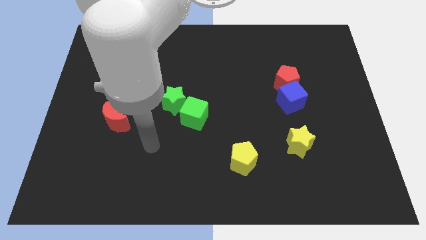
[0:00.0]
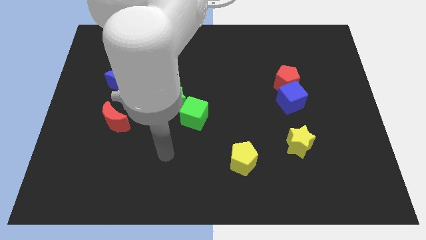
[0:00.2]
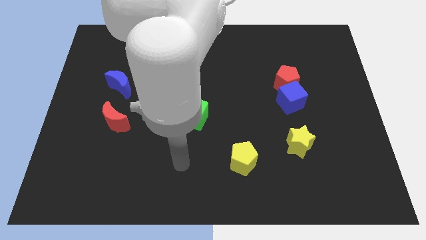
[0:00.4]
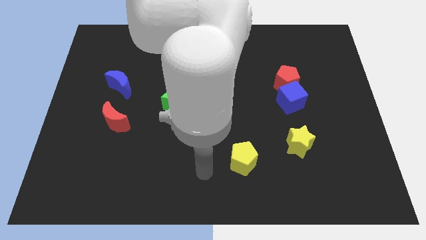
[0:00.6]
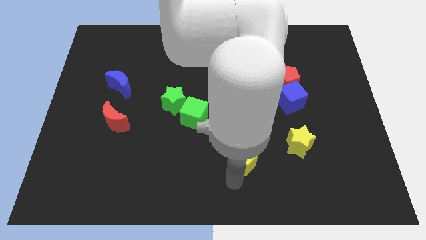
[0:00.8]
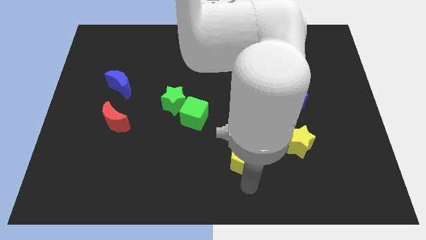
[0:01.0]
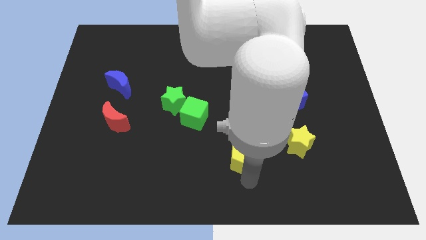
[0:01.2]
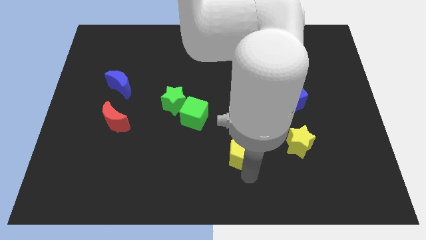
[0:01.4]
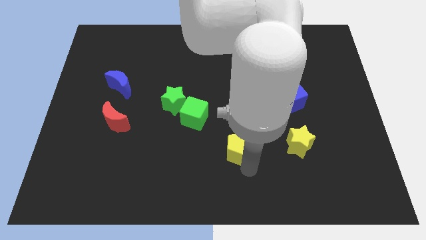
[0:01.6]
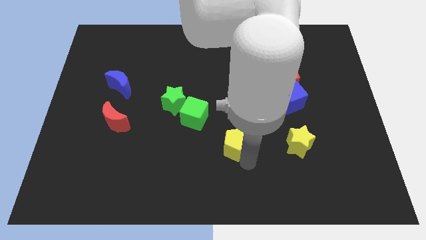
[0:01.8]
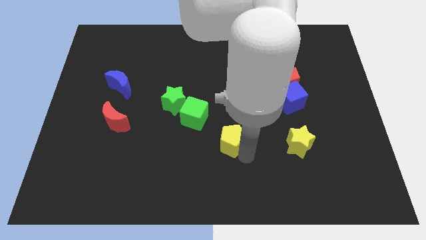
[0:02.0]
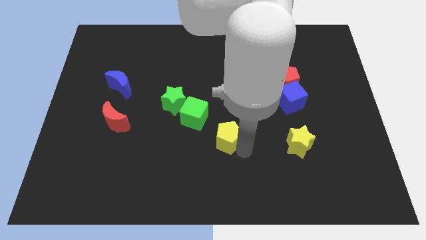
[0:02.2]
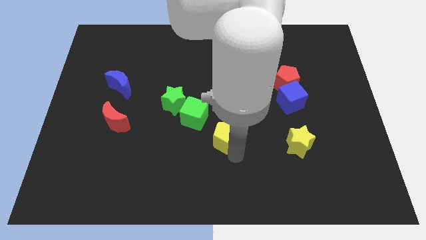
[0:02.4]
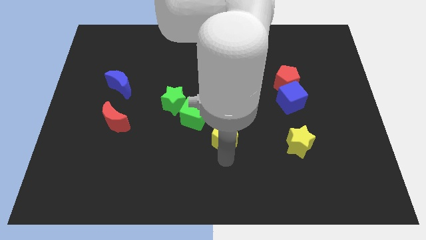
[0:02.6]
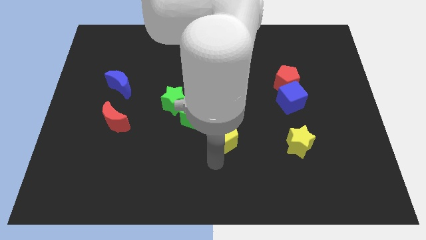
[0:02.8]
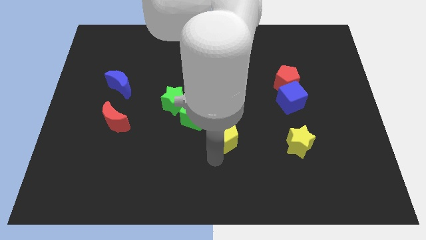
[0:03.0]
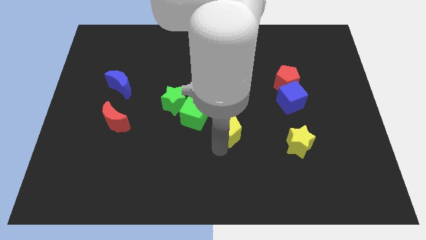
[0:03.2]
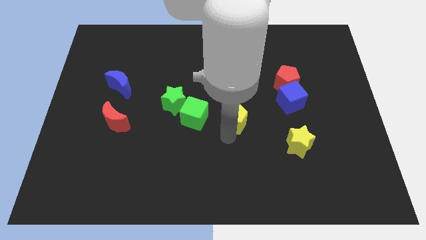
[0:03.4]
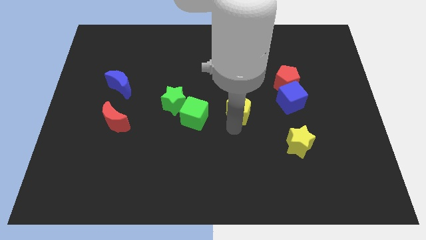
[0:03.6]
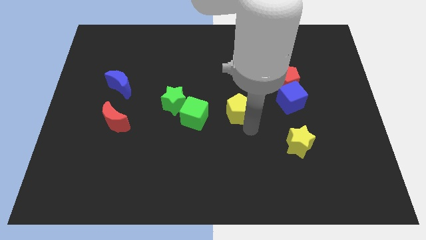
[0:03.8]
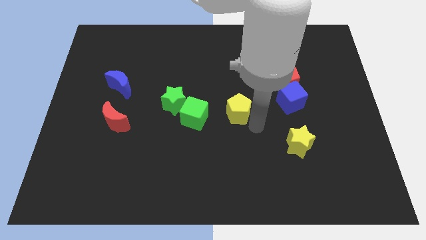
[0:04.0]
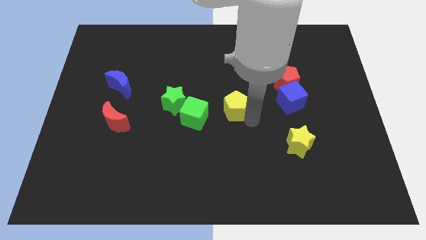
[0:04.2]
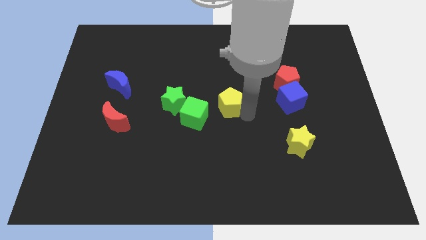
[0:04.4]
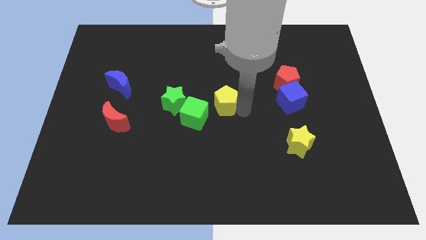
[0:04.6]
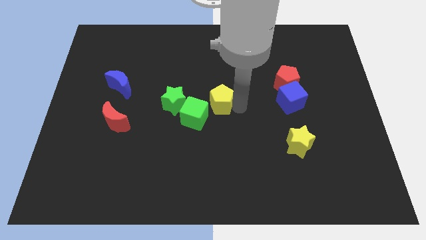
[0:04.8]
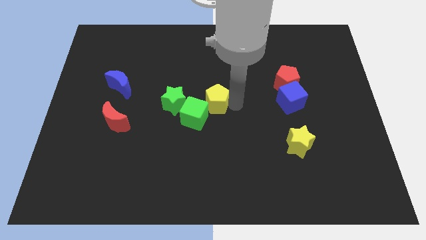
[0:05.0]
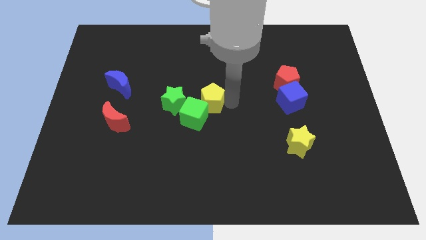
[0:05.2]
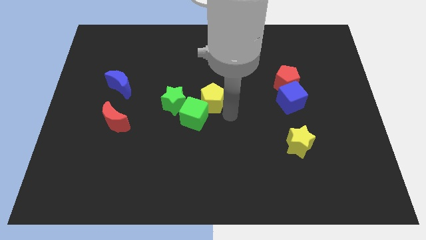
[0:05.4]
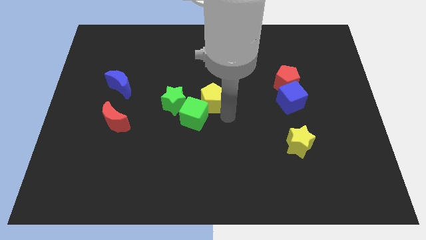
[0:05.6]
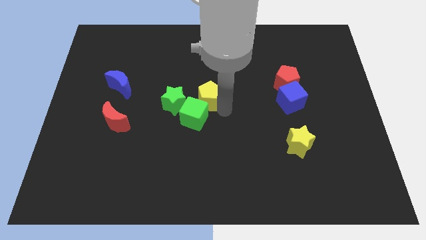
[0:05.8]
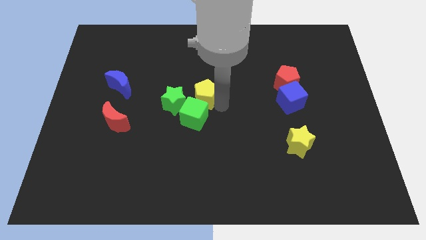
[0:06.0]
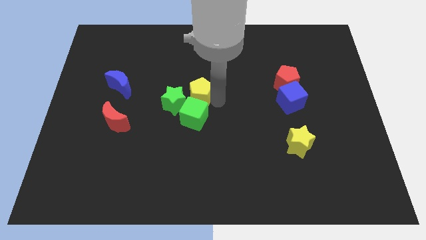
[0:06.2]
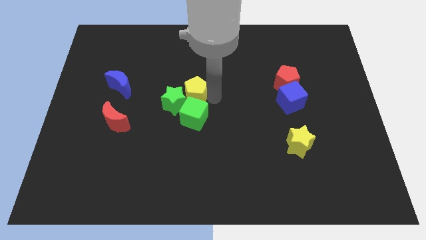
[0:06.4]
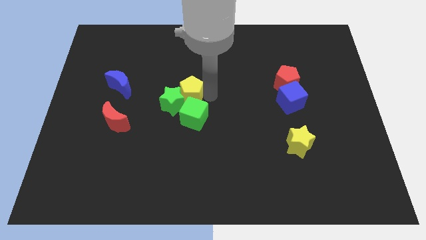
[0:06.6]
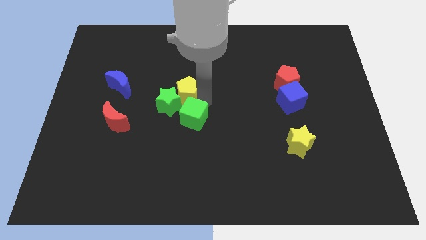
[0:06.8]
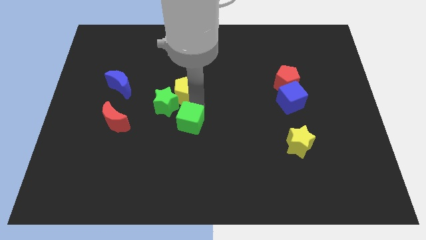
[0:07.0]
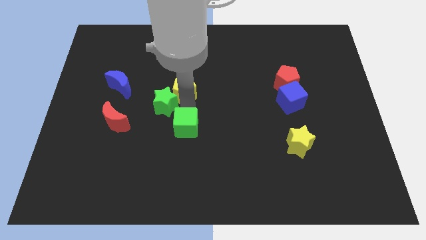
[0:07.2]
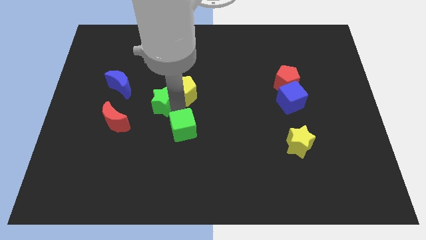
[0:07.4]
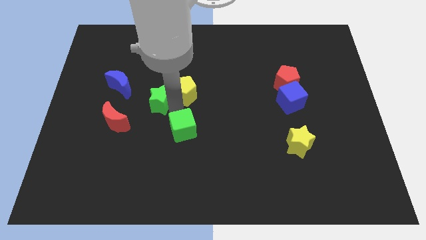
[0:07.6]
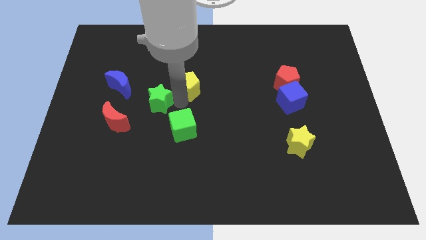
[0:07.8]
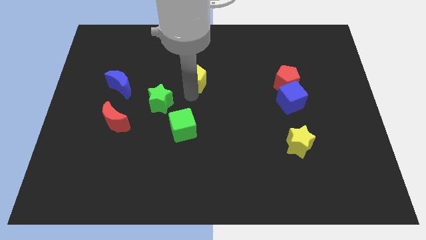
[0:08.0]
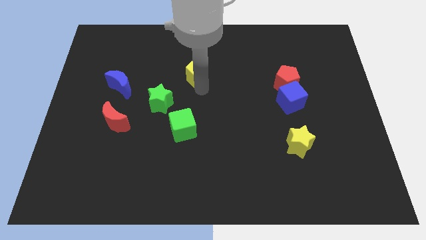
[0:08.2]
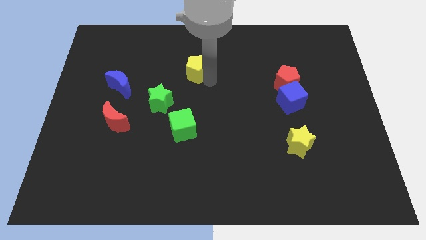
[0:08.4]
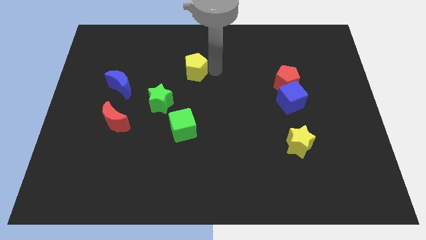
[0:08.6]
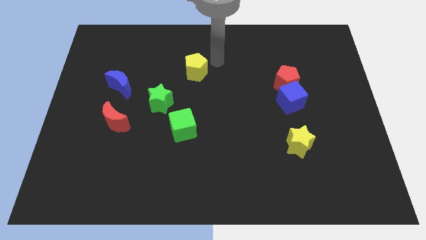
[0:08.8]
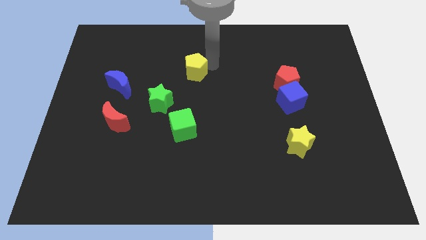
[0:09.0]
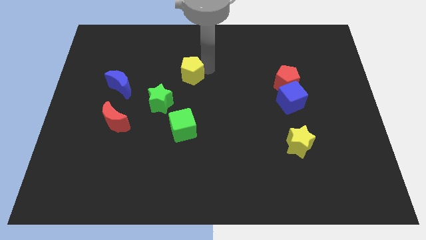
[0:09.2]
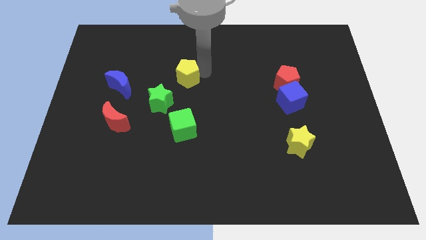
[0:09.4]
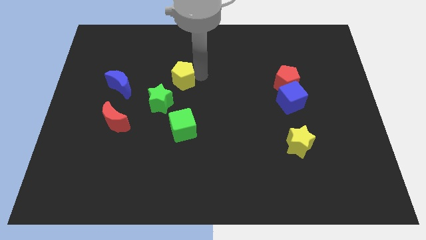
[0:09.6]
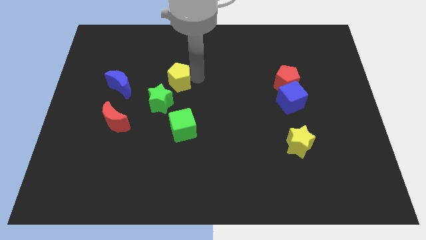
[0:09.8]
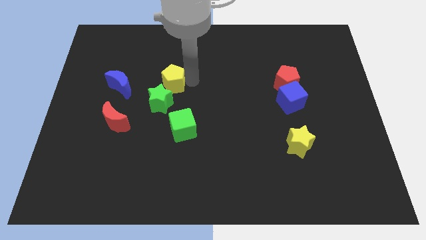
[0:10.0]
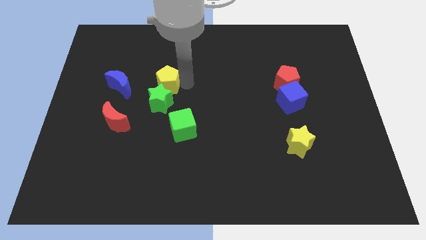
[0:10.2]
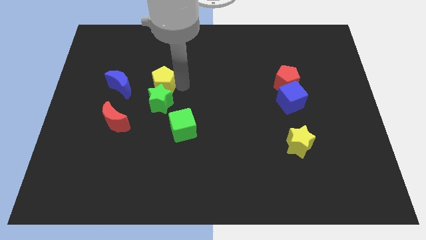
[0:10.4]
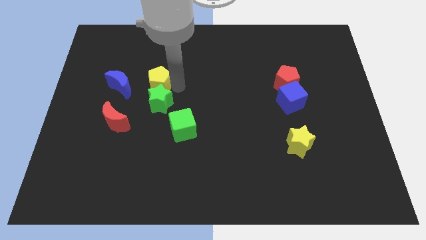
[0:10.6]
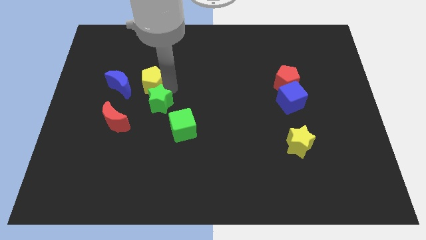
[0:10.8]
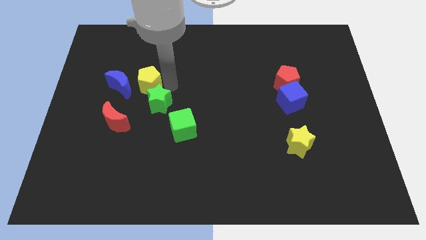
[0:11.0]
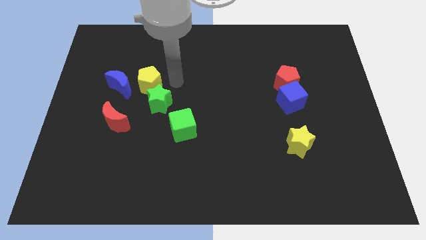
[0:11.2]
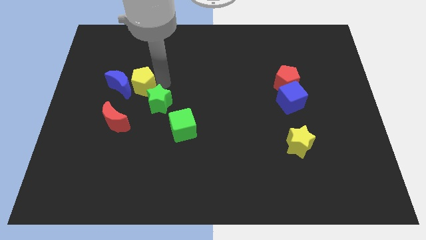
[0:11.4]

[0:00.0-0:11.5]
move the yellow pentagon towards the blue moon

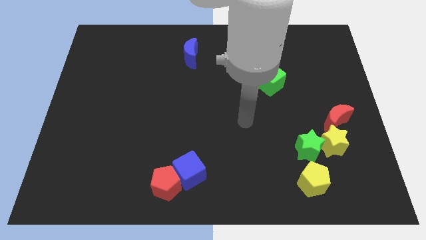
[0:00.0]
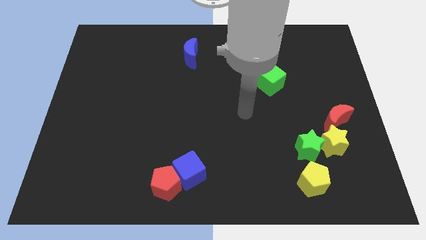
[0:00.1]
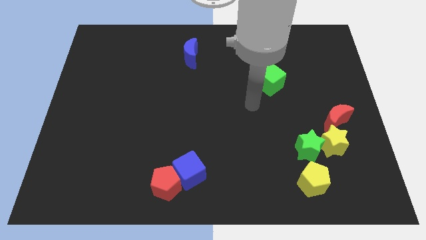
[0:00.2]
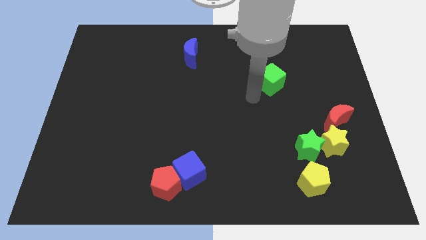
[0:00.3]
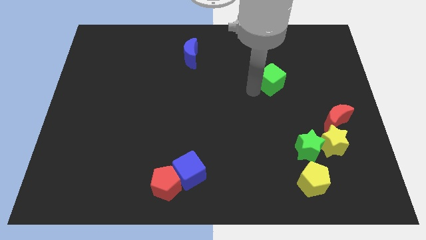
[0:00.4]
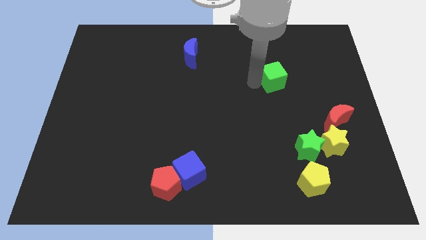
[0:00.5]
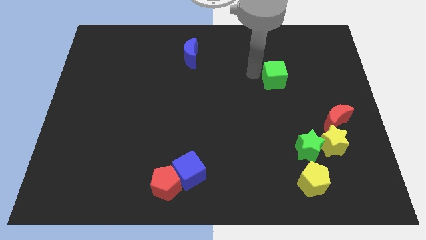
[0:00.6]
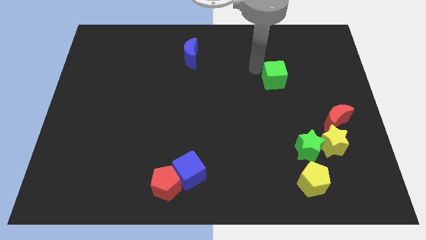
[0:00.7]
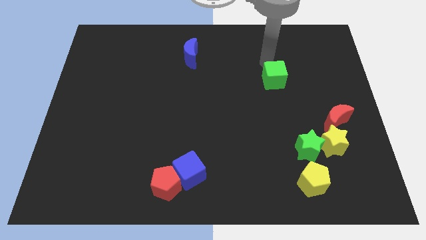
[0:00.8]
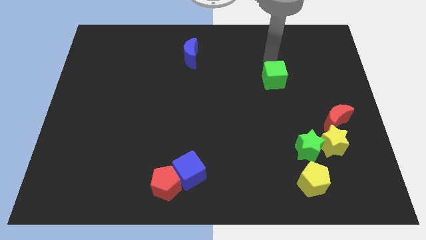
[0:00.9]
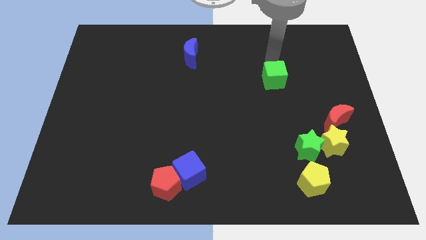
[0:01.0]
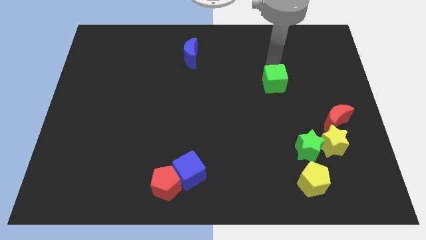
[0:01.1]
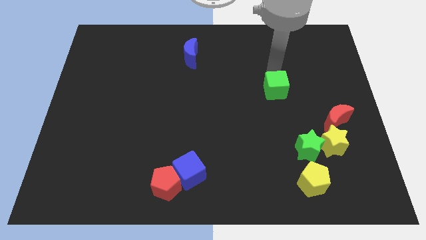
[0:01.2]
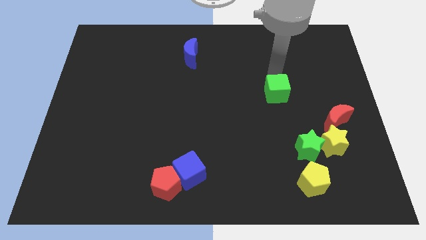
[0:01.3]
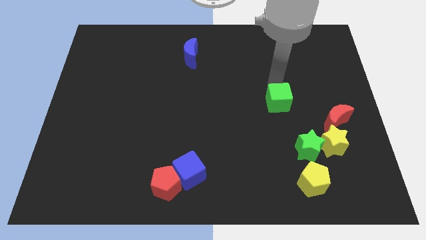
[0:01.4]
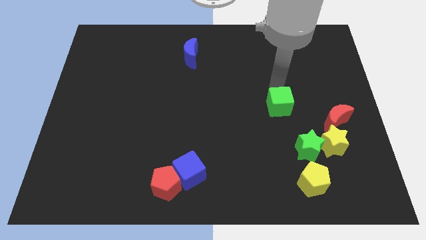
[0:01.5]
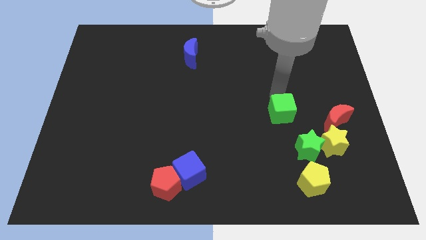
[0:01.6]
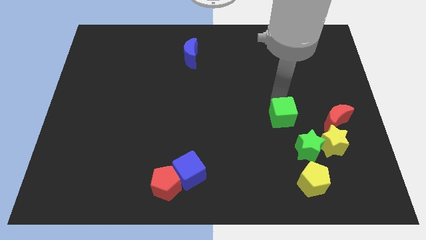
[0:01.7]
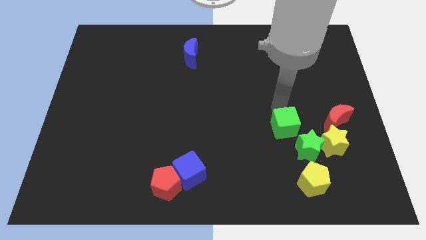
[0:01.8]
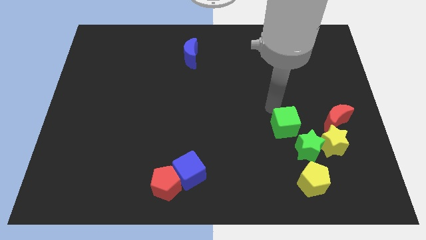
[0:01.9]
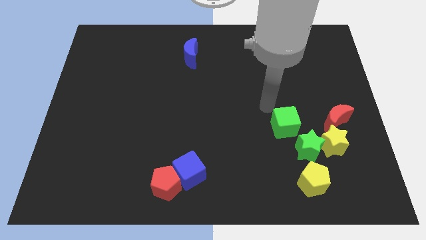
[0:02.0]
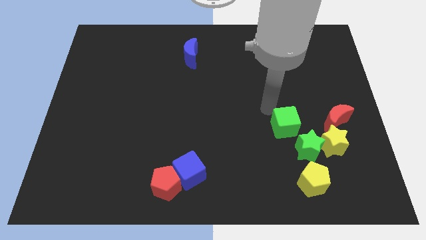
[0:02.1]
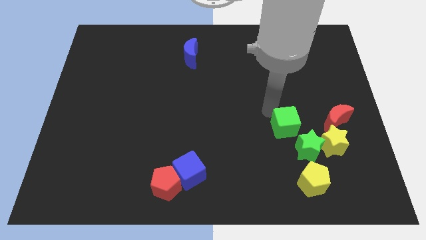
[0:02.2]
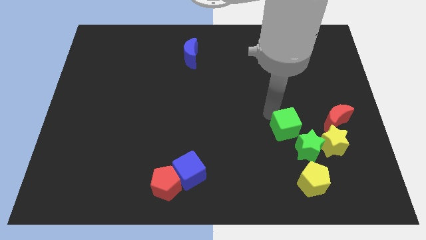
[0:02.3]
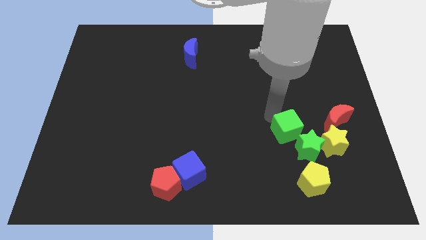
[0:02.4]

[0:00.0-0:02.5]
put the green cube next to the green star
